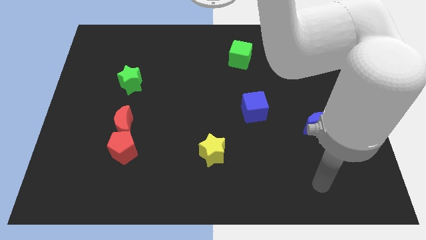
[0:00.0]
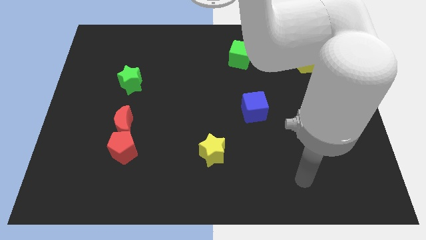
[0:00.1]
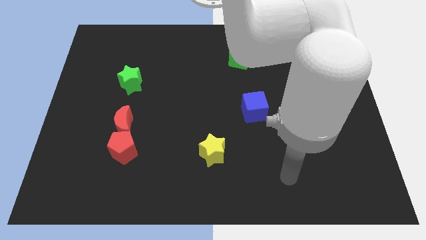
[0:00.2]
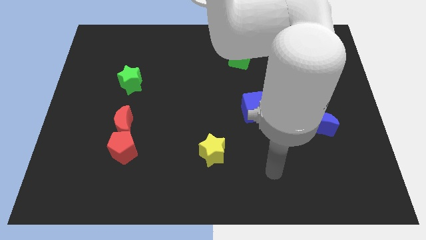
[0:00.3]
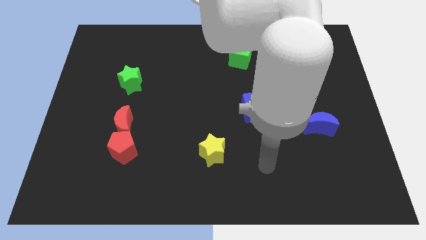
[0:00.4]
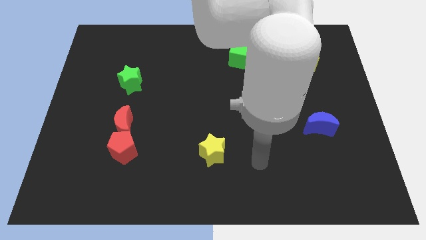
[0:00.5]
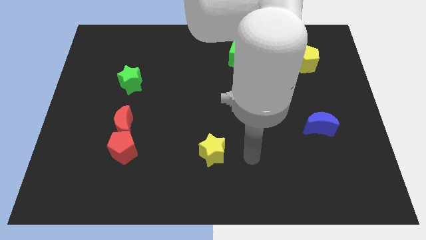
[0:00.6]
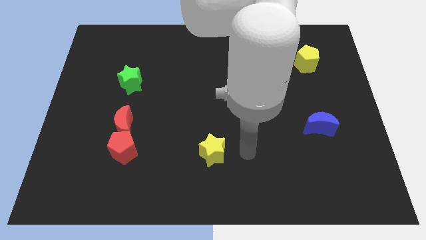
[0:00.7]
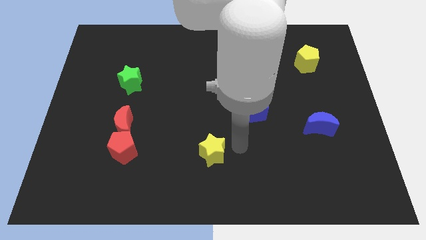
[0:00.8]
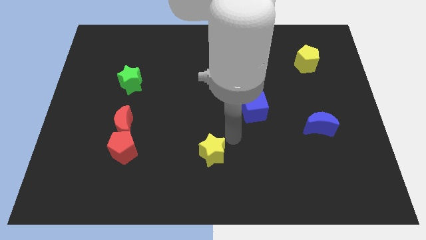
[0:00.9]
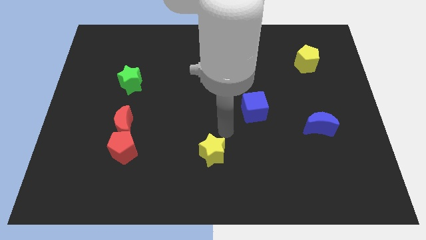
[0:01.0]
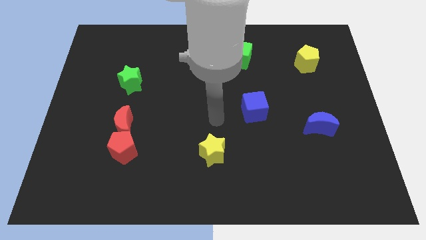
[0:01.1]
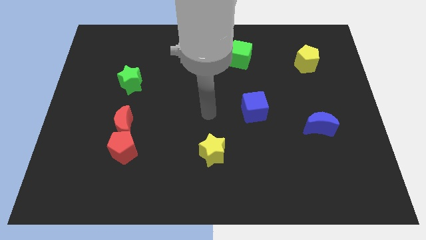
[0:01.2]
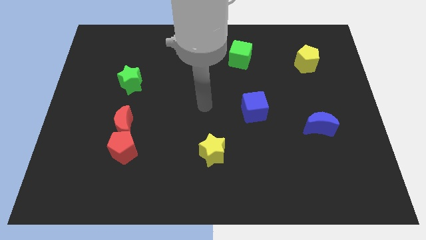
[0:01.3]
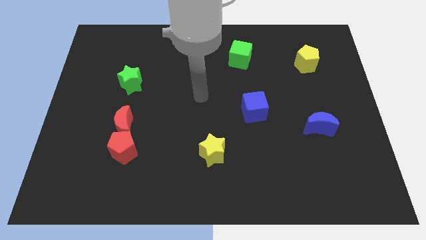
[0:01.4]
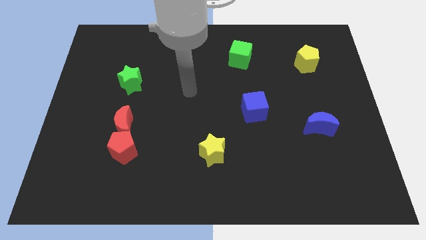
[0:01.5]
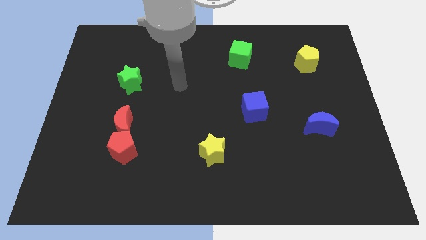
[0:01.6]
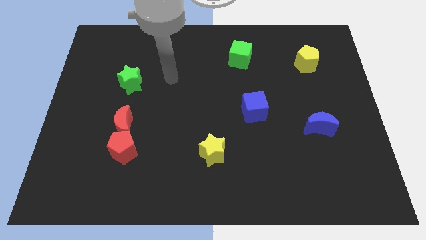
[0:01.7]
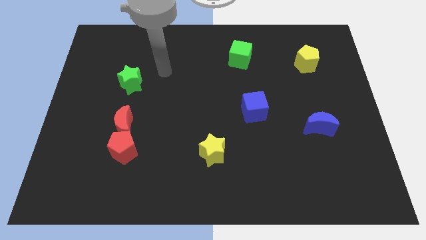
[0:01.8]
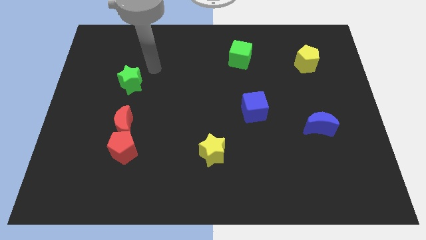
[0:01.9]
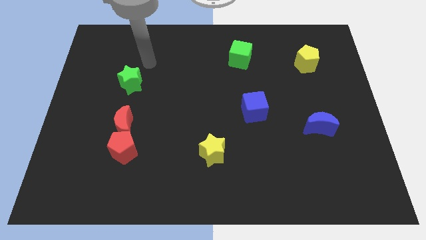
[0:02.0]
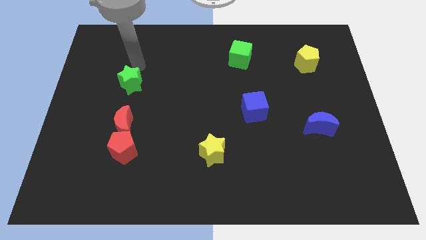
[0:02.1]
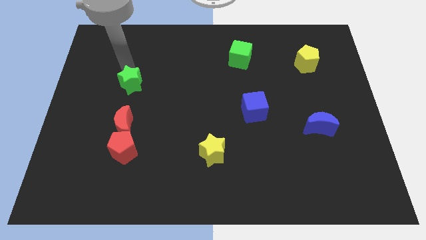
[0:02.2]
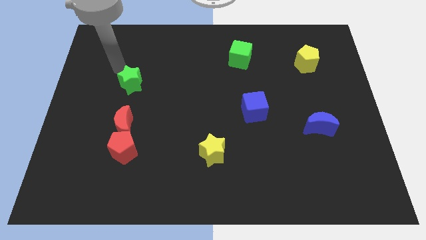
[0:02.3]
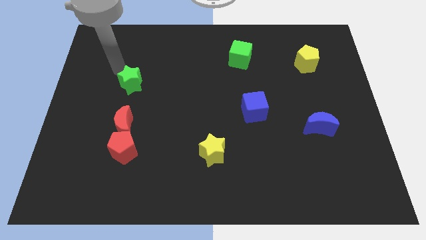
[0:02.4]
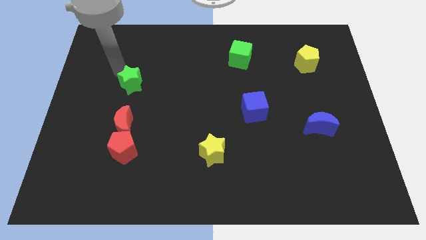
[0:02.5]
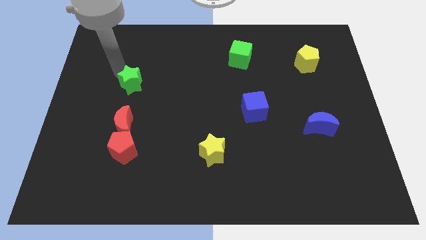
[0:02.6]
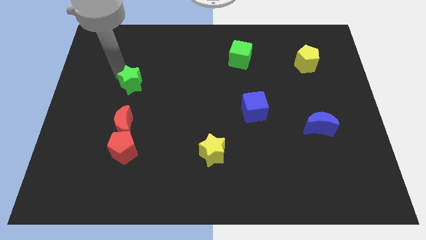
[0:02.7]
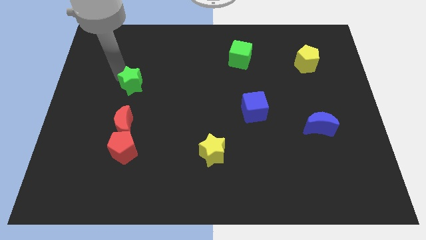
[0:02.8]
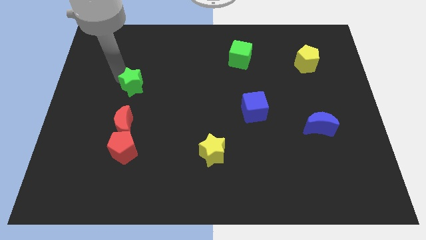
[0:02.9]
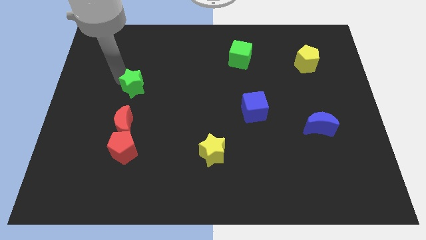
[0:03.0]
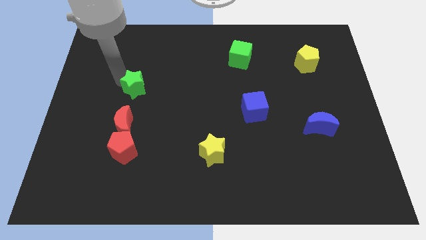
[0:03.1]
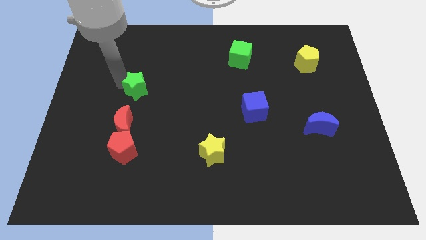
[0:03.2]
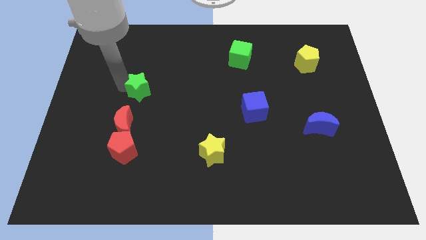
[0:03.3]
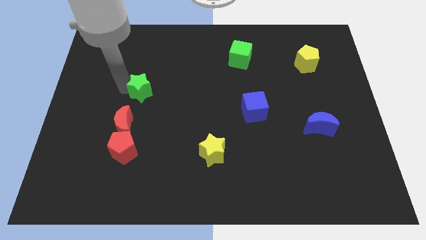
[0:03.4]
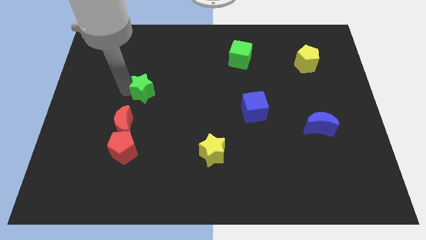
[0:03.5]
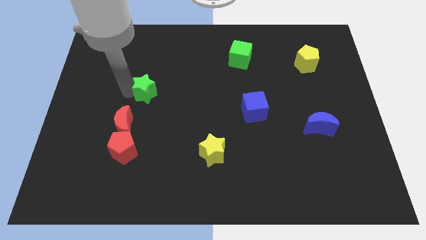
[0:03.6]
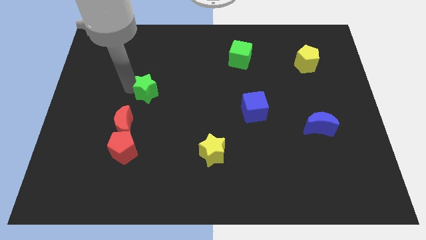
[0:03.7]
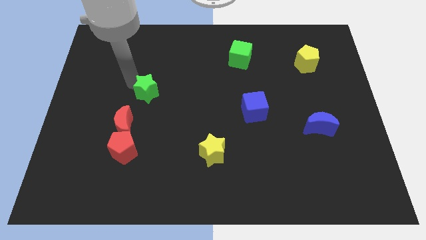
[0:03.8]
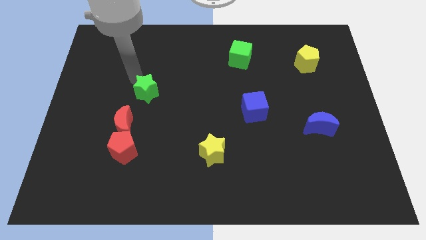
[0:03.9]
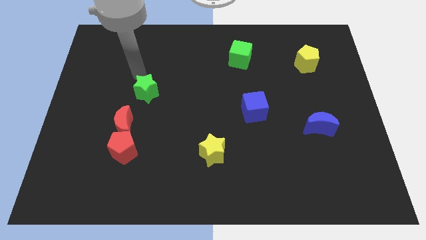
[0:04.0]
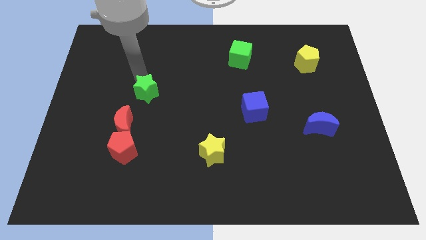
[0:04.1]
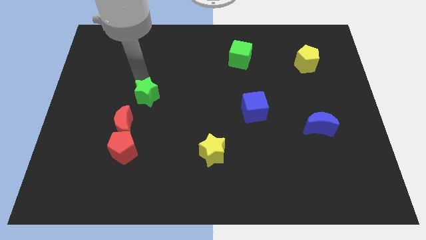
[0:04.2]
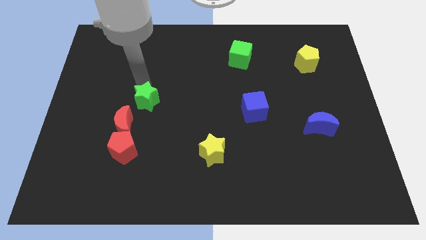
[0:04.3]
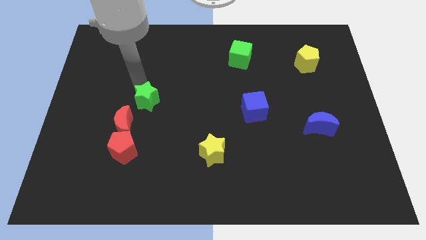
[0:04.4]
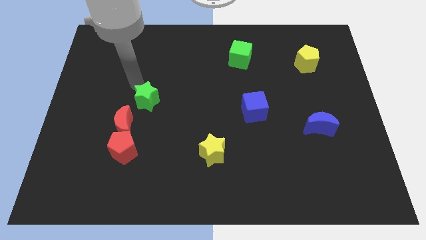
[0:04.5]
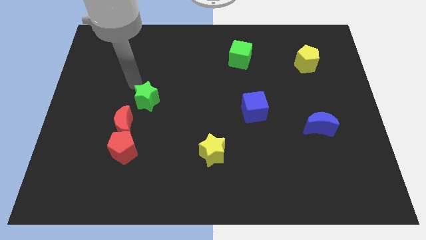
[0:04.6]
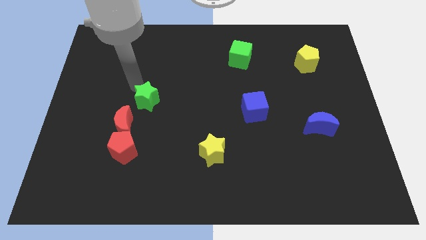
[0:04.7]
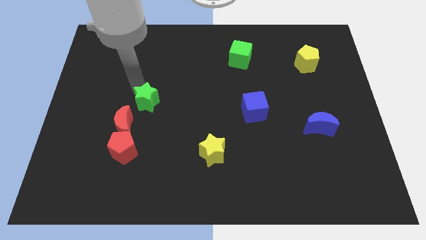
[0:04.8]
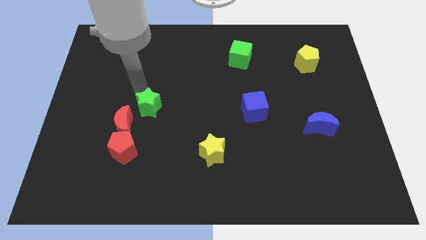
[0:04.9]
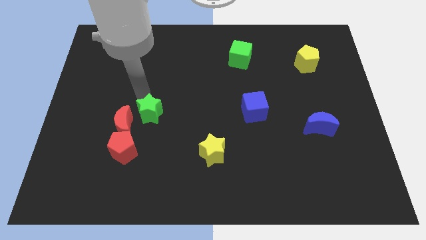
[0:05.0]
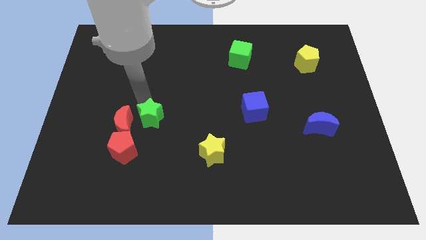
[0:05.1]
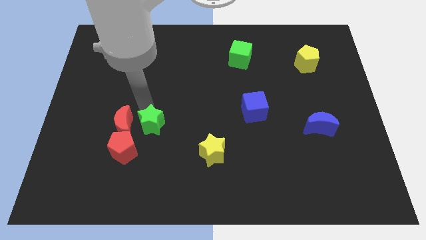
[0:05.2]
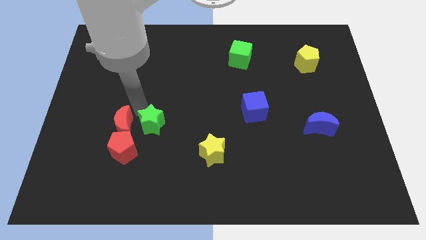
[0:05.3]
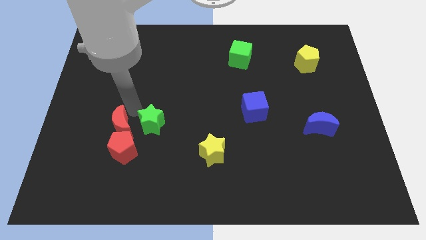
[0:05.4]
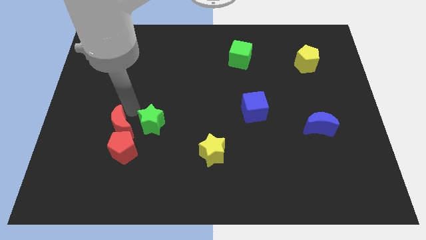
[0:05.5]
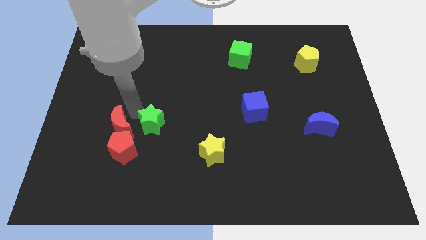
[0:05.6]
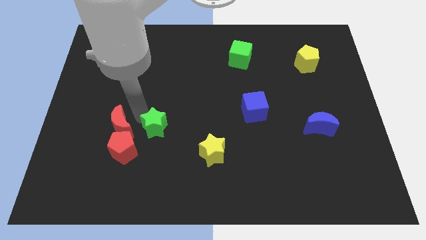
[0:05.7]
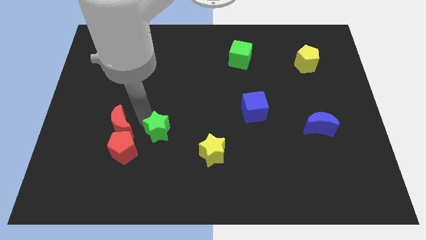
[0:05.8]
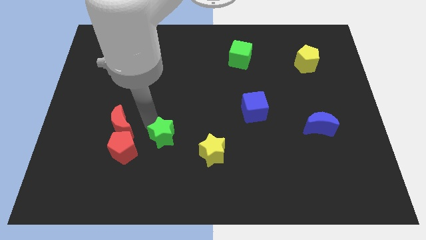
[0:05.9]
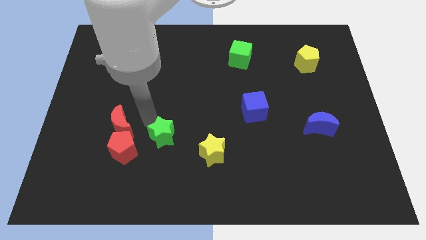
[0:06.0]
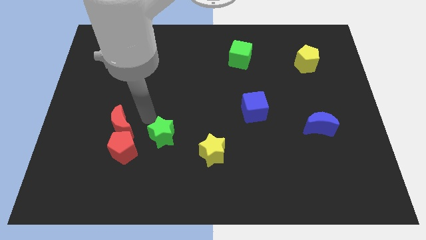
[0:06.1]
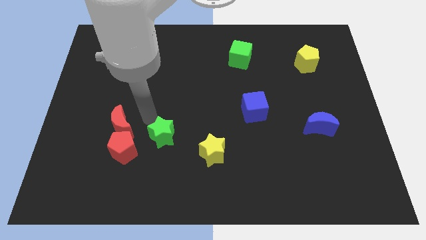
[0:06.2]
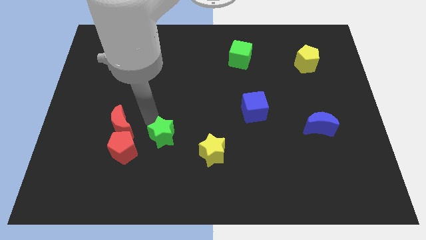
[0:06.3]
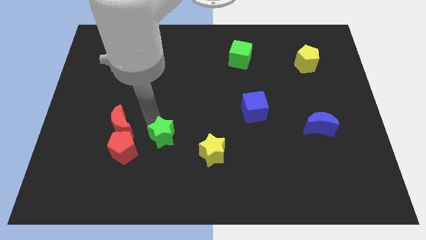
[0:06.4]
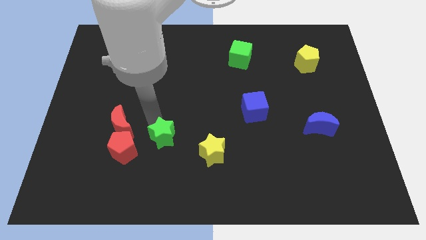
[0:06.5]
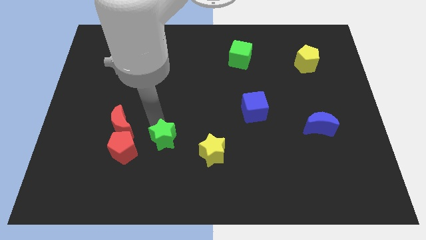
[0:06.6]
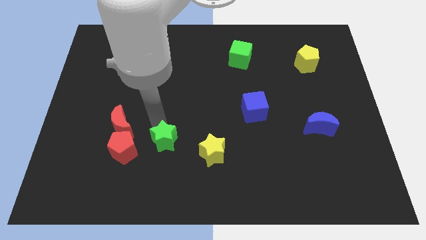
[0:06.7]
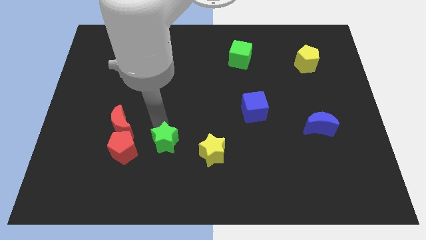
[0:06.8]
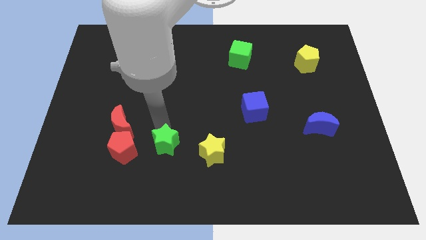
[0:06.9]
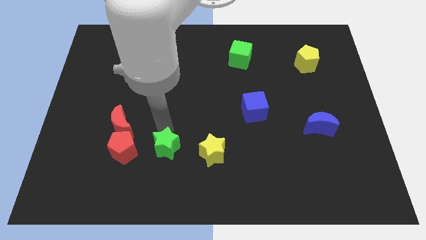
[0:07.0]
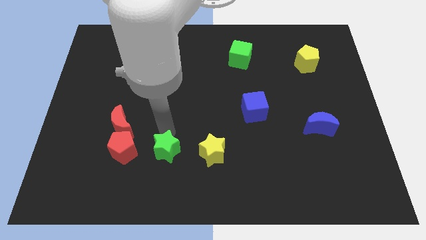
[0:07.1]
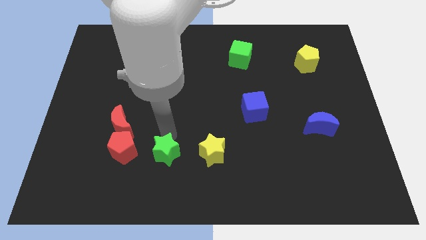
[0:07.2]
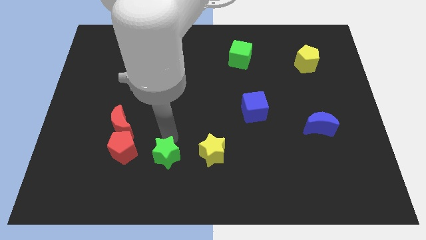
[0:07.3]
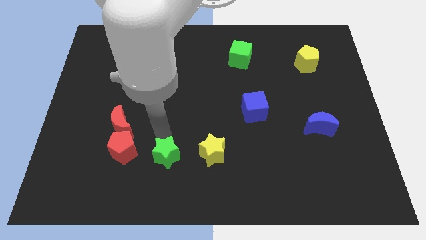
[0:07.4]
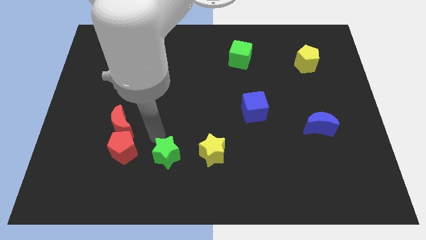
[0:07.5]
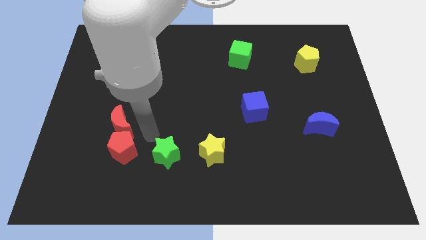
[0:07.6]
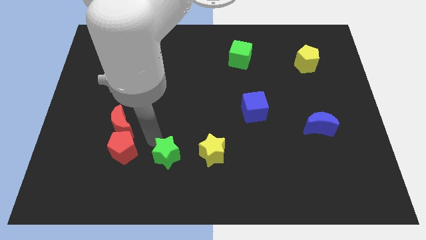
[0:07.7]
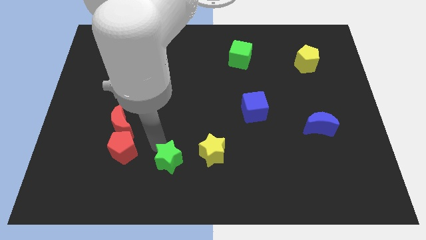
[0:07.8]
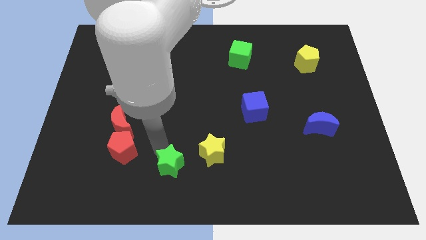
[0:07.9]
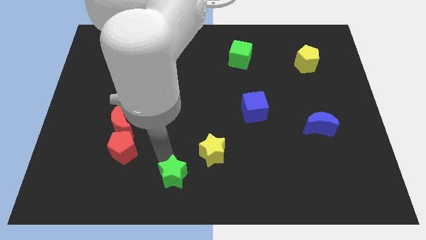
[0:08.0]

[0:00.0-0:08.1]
slide the green star to the bottom side
